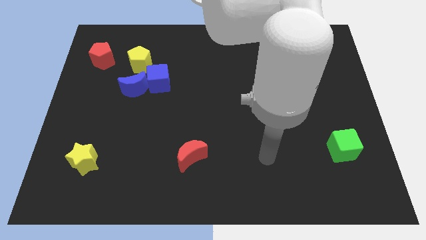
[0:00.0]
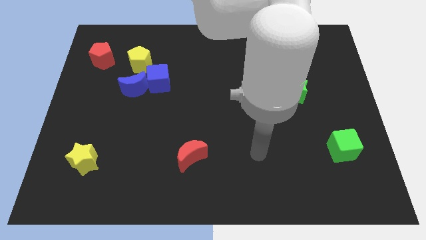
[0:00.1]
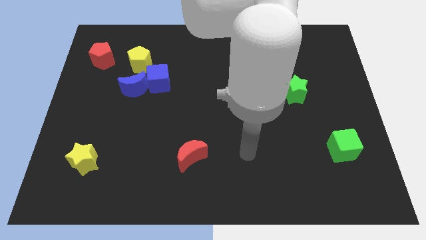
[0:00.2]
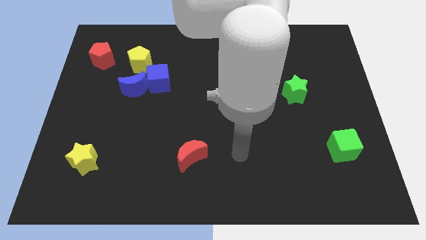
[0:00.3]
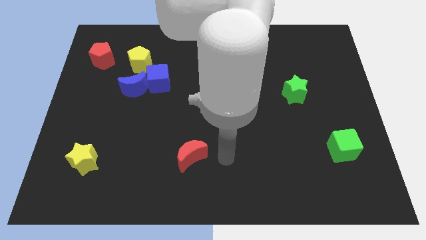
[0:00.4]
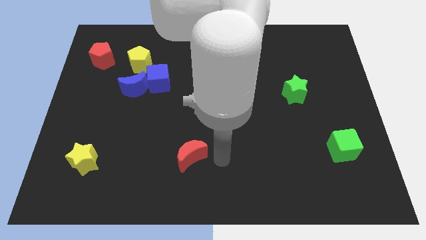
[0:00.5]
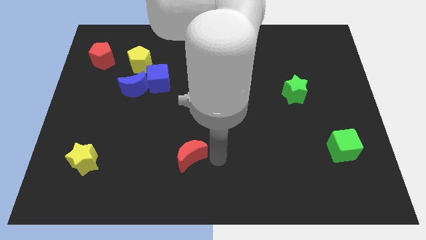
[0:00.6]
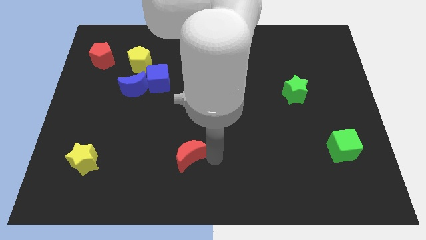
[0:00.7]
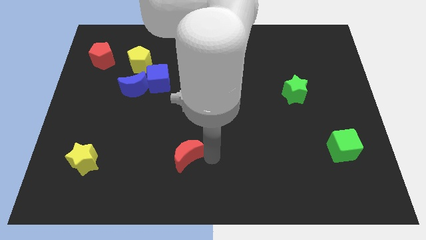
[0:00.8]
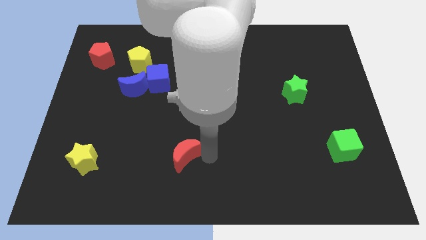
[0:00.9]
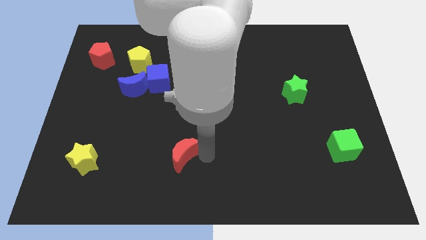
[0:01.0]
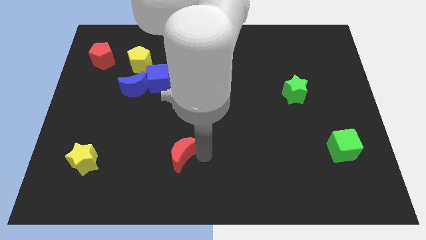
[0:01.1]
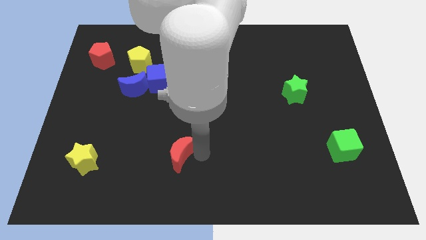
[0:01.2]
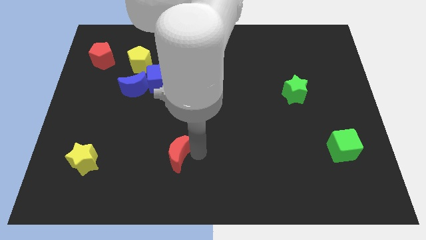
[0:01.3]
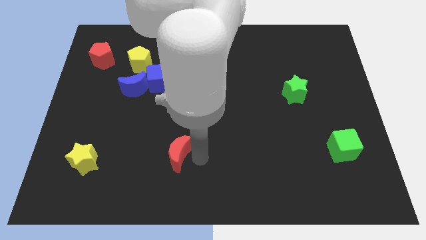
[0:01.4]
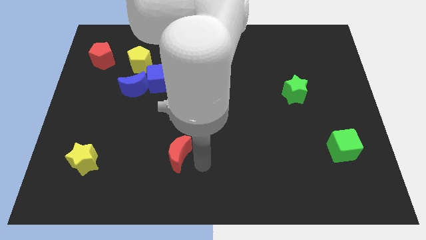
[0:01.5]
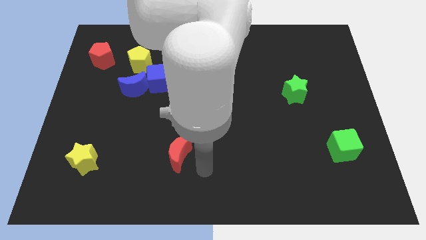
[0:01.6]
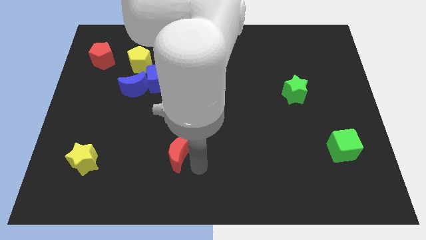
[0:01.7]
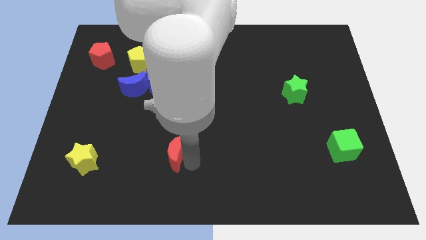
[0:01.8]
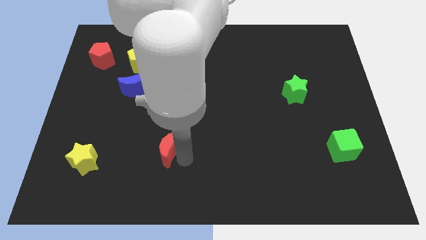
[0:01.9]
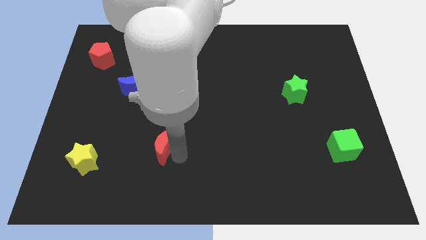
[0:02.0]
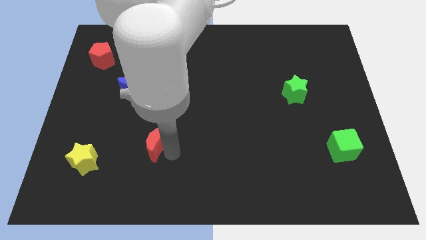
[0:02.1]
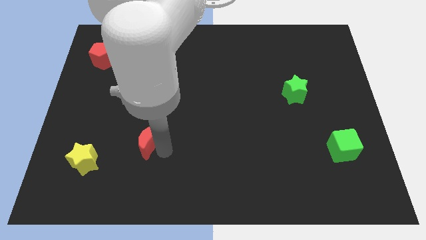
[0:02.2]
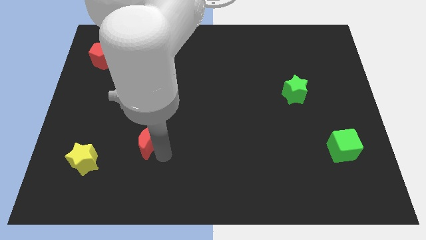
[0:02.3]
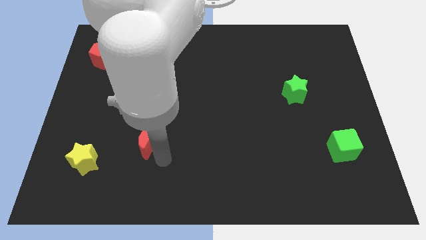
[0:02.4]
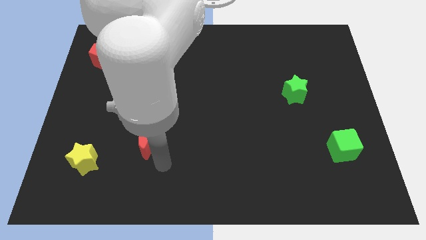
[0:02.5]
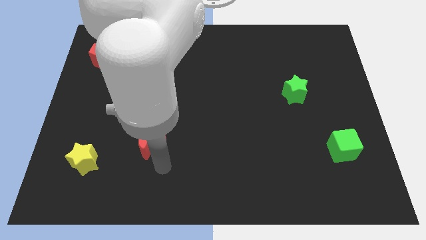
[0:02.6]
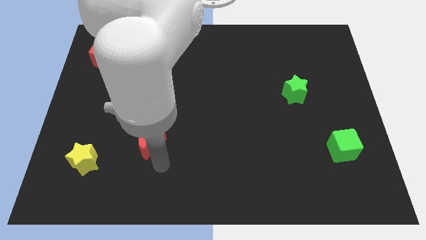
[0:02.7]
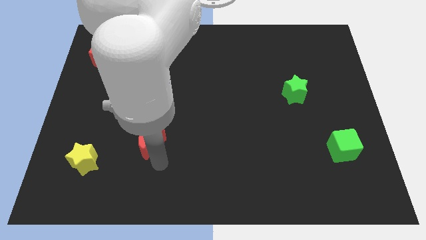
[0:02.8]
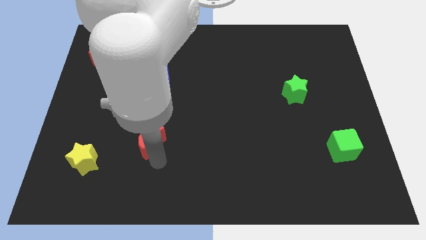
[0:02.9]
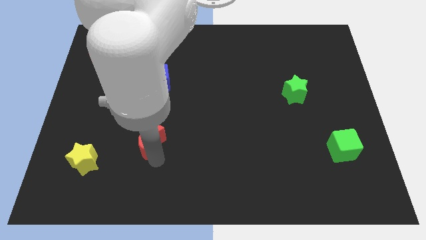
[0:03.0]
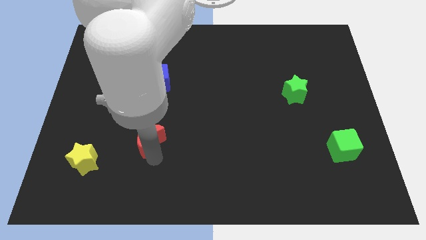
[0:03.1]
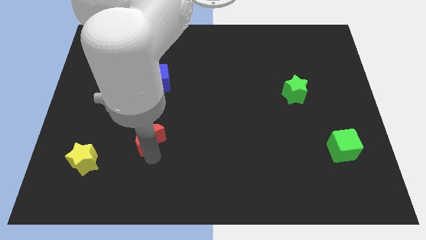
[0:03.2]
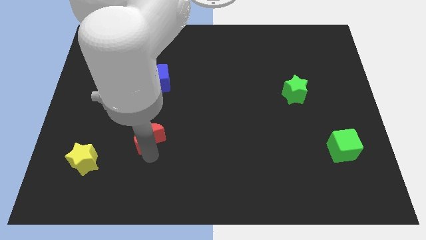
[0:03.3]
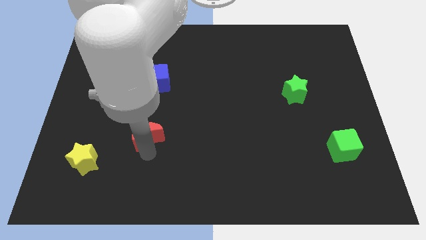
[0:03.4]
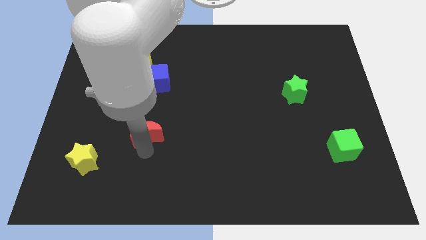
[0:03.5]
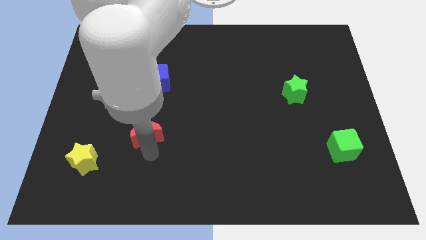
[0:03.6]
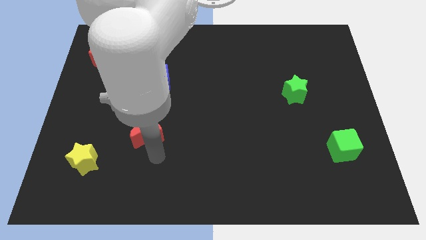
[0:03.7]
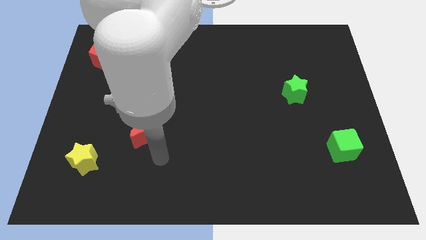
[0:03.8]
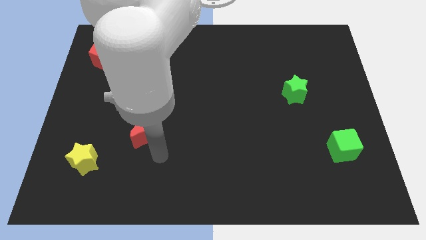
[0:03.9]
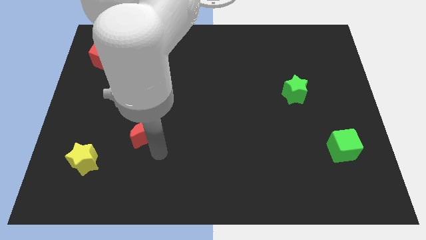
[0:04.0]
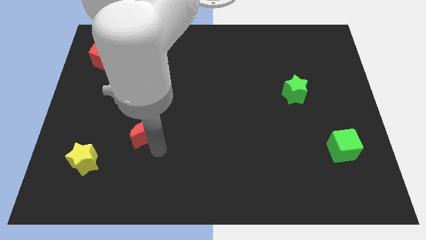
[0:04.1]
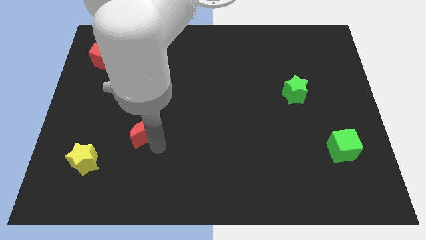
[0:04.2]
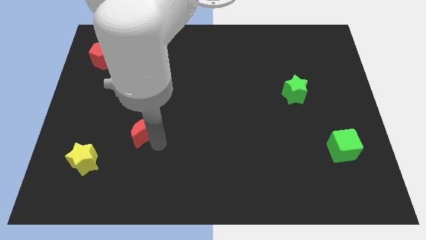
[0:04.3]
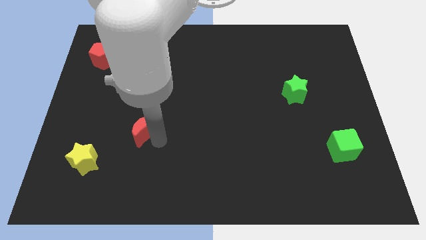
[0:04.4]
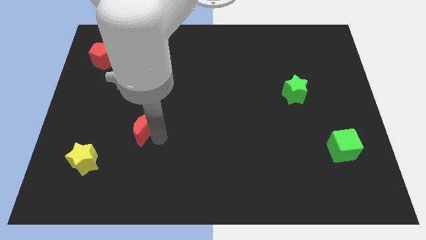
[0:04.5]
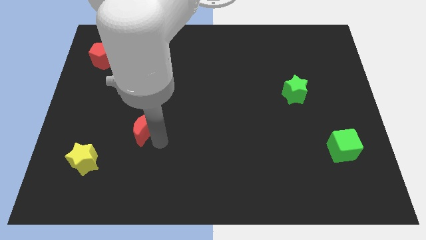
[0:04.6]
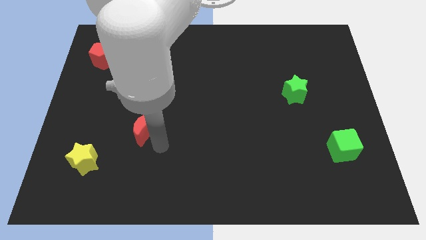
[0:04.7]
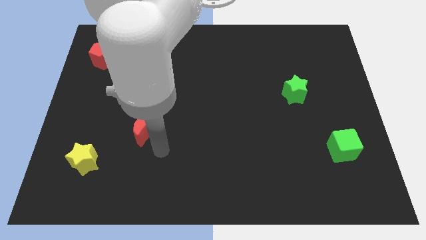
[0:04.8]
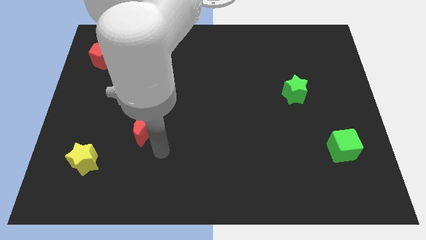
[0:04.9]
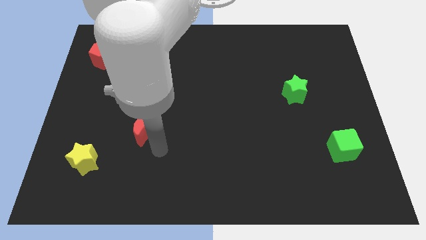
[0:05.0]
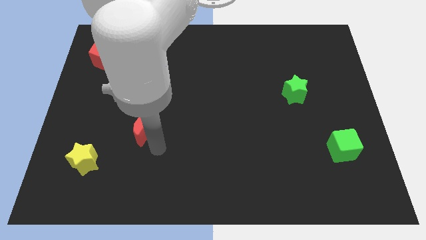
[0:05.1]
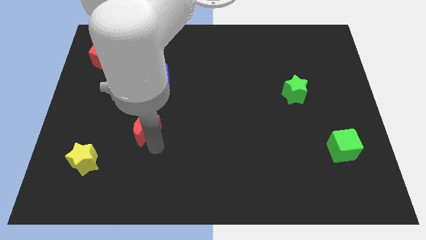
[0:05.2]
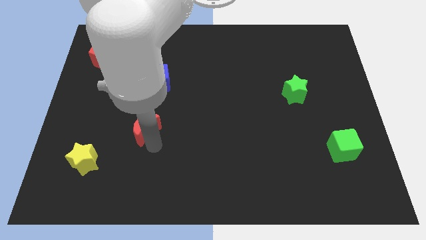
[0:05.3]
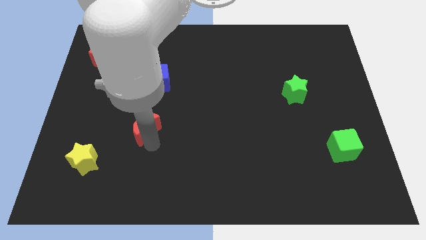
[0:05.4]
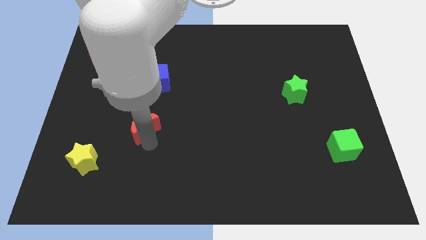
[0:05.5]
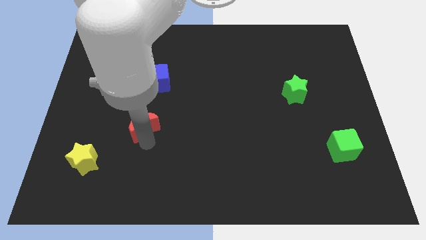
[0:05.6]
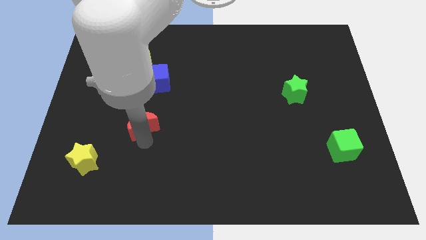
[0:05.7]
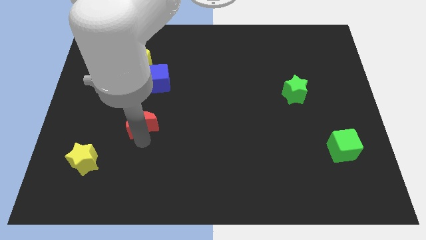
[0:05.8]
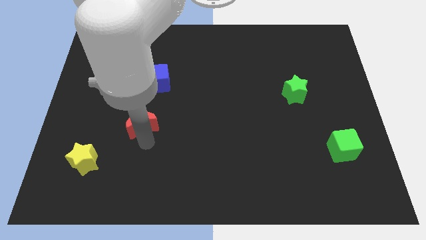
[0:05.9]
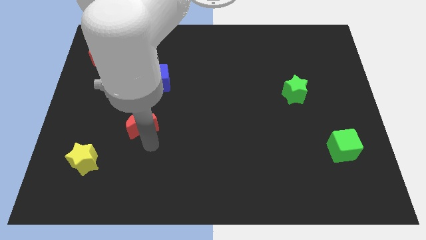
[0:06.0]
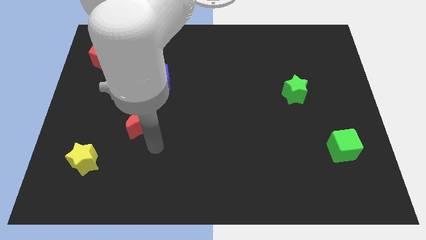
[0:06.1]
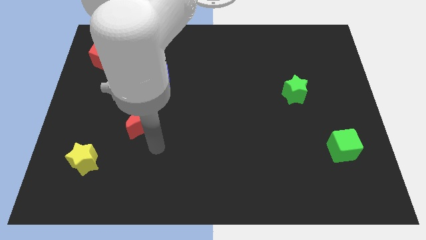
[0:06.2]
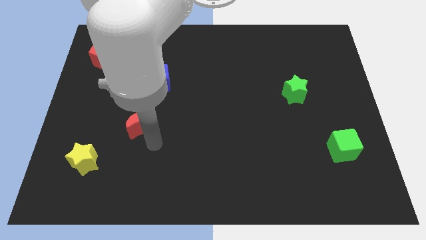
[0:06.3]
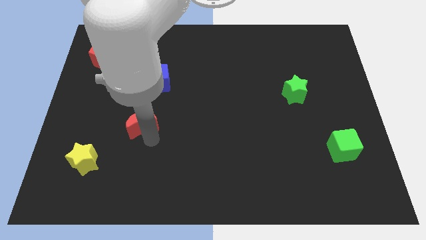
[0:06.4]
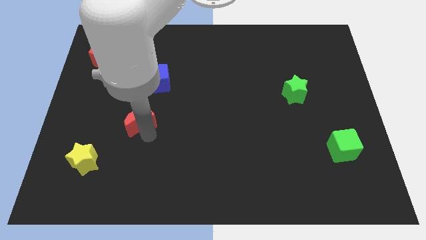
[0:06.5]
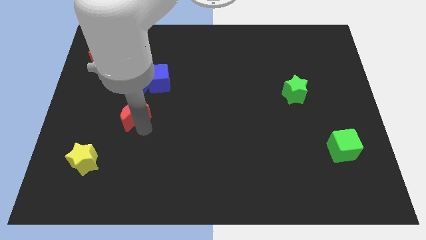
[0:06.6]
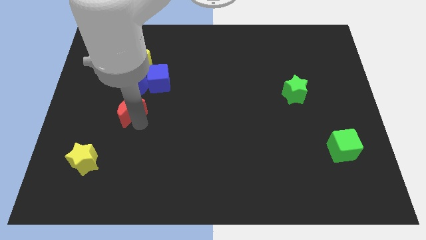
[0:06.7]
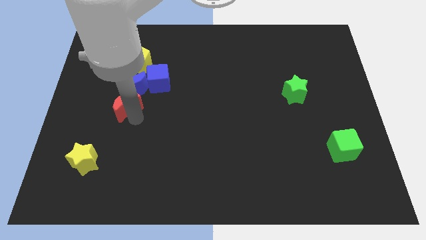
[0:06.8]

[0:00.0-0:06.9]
move the red moon upwards and left diagonally

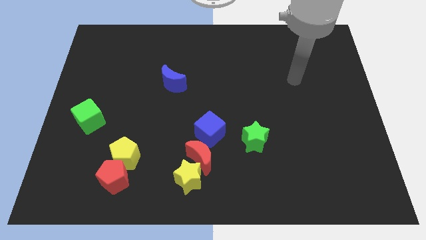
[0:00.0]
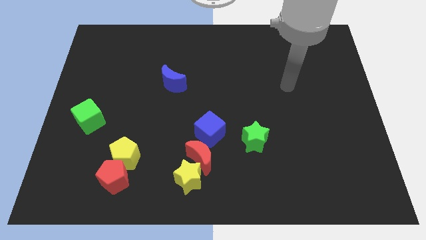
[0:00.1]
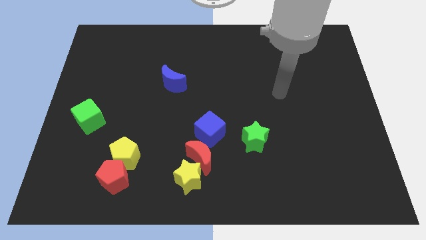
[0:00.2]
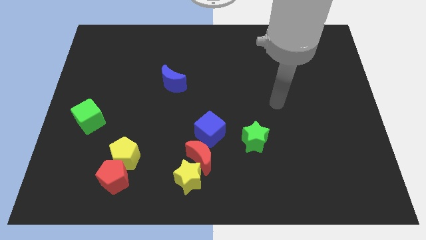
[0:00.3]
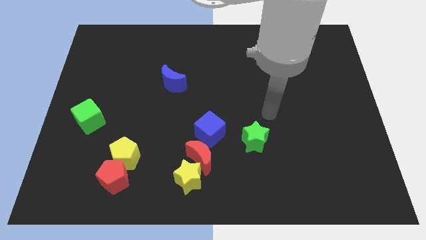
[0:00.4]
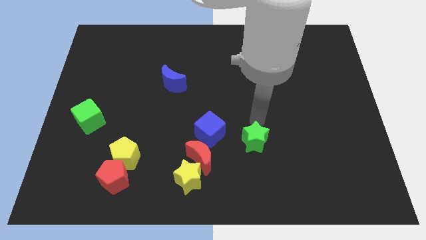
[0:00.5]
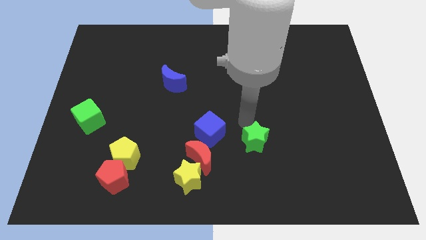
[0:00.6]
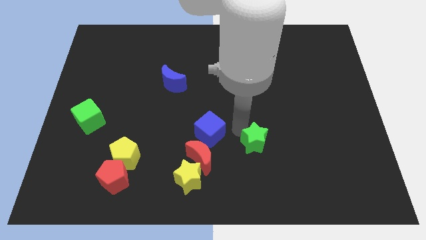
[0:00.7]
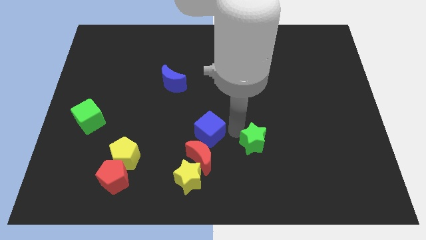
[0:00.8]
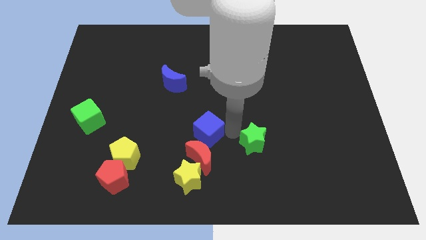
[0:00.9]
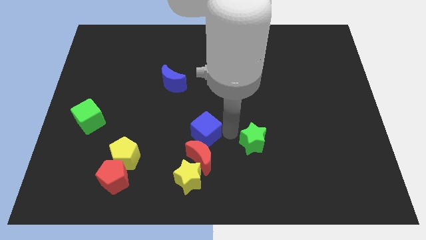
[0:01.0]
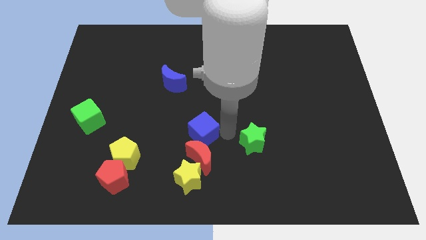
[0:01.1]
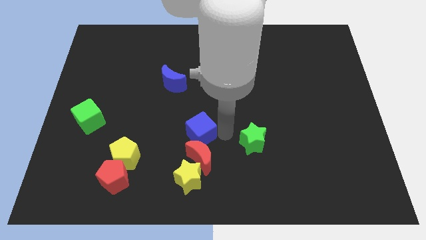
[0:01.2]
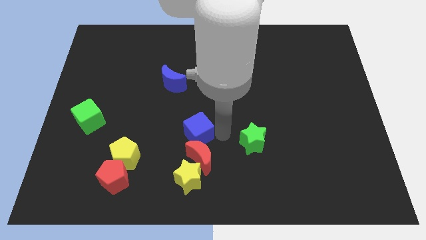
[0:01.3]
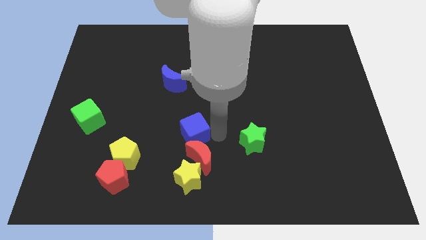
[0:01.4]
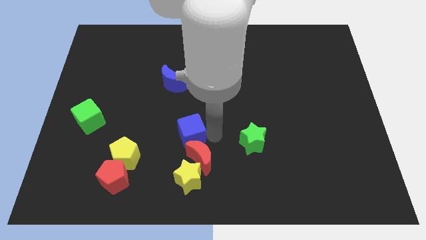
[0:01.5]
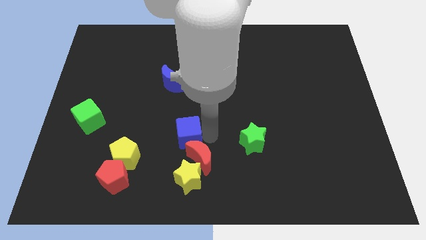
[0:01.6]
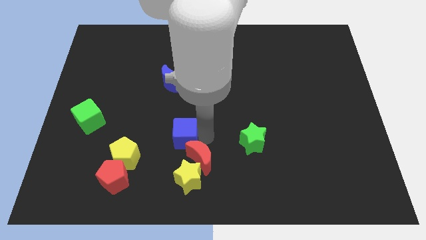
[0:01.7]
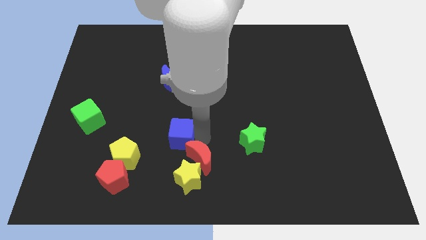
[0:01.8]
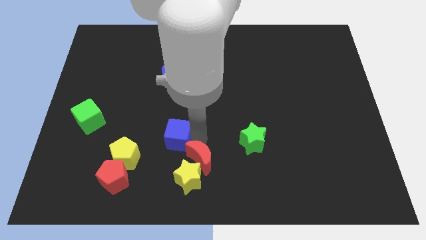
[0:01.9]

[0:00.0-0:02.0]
push the blue cube slightly to the left
